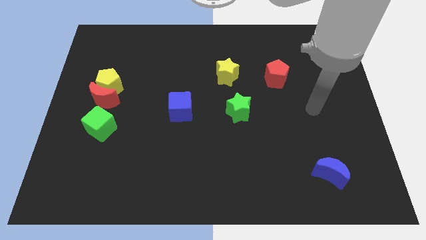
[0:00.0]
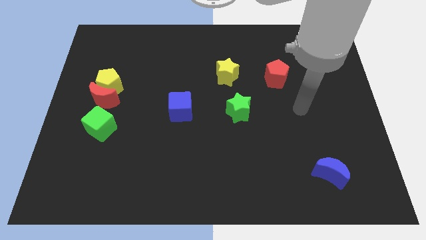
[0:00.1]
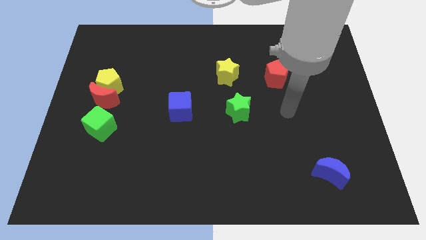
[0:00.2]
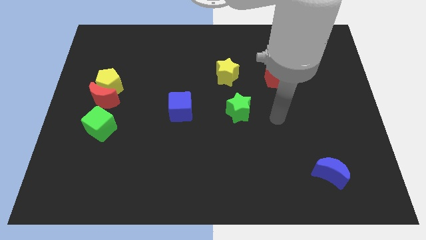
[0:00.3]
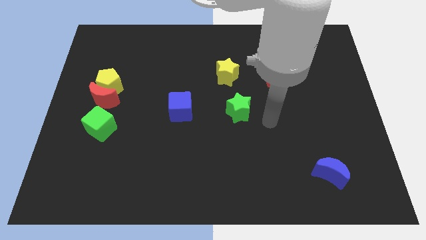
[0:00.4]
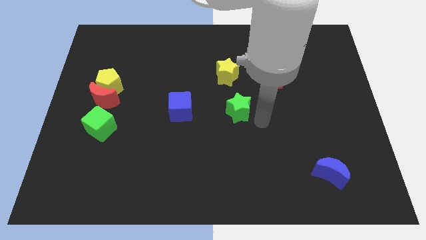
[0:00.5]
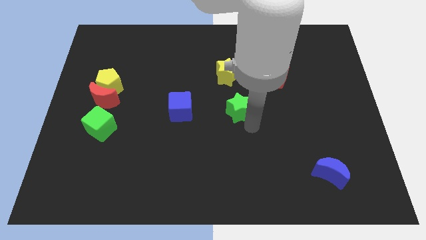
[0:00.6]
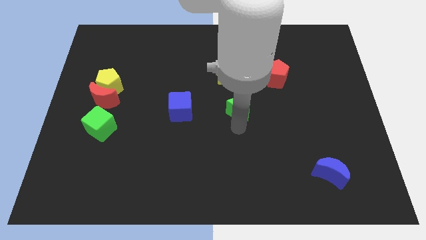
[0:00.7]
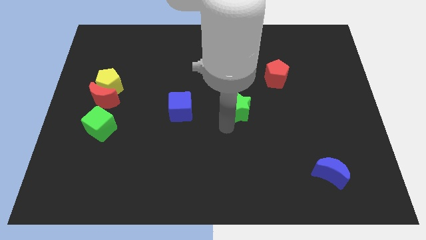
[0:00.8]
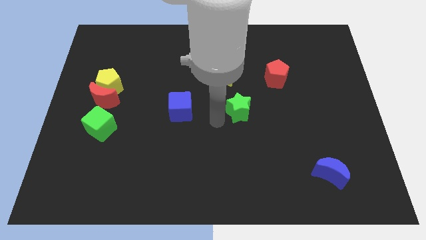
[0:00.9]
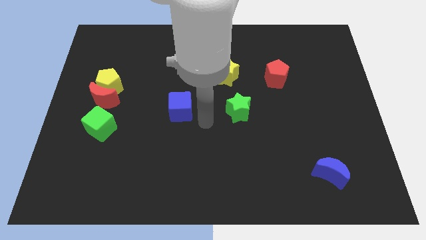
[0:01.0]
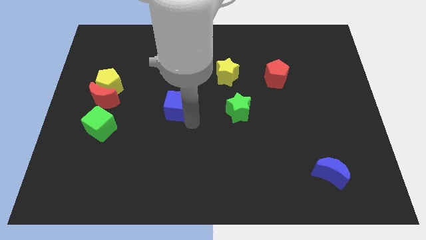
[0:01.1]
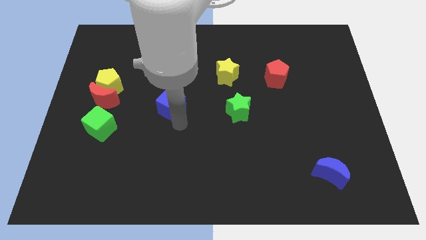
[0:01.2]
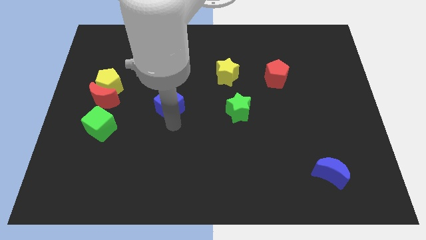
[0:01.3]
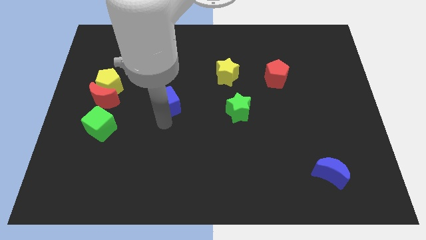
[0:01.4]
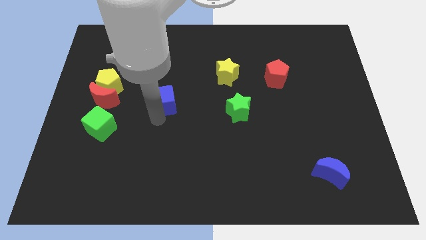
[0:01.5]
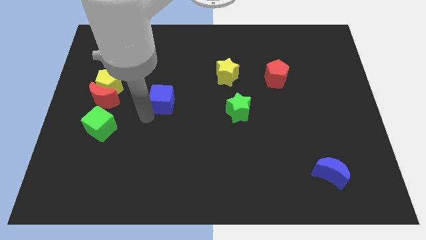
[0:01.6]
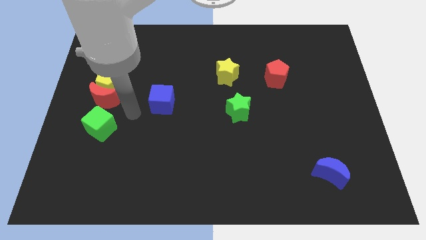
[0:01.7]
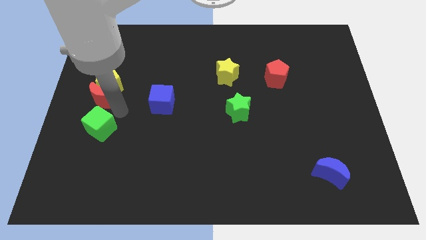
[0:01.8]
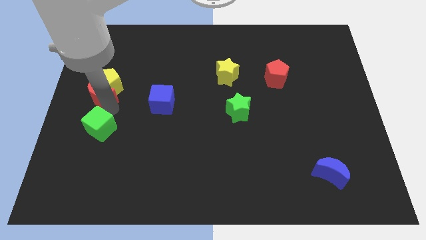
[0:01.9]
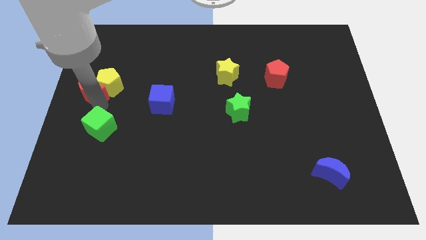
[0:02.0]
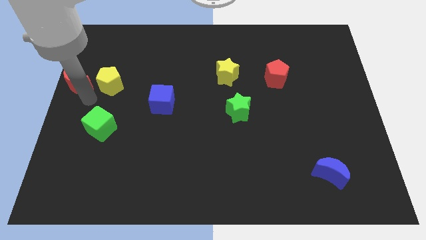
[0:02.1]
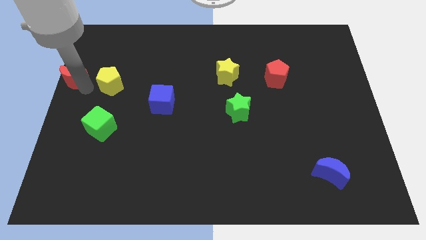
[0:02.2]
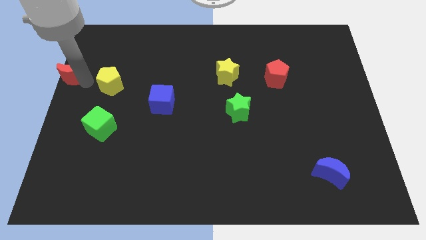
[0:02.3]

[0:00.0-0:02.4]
separate the yellow pentagon from the red moon

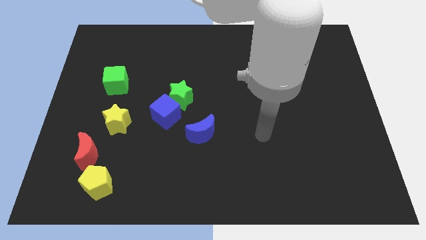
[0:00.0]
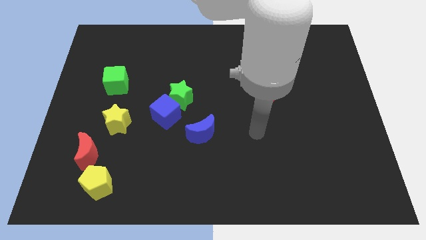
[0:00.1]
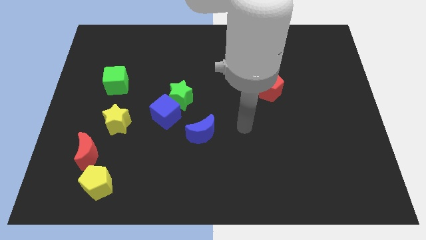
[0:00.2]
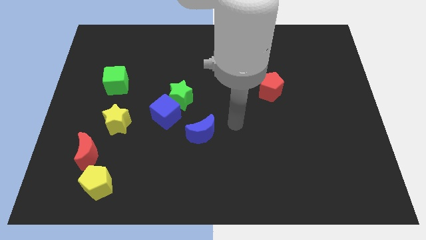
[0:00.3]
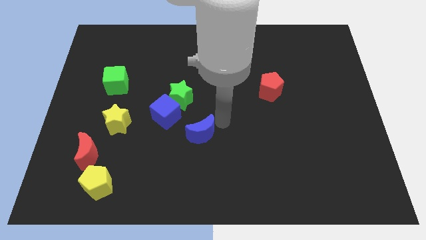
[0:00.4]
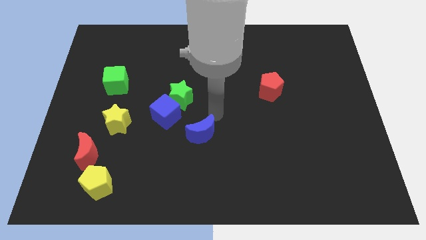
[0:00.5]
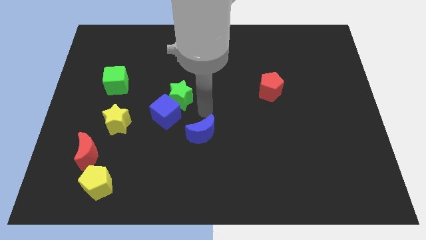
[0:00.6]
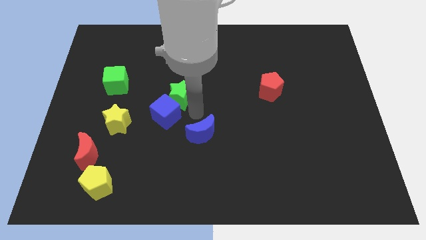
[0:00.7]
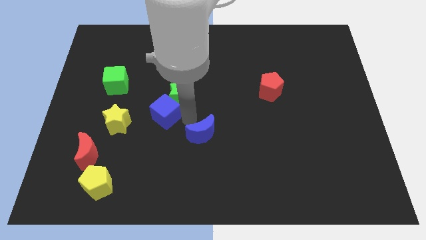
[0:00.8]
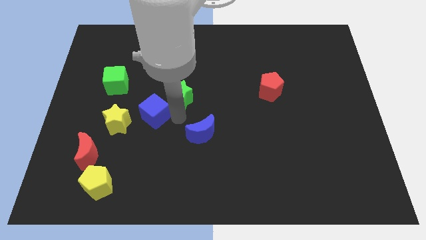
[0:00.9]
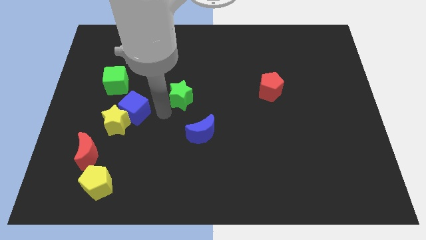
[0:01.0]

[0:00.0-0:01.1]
pull the green star apart from the blue cube

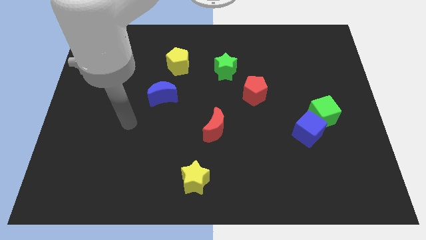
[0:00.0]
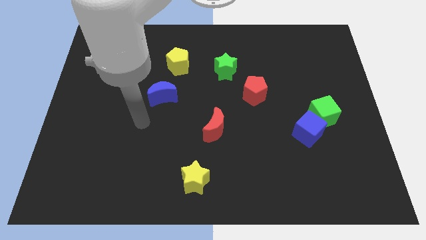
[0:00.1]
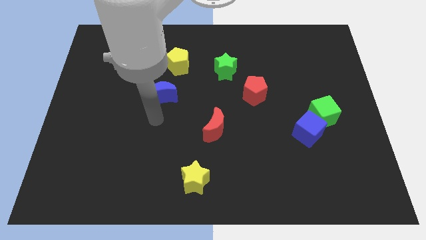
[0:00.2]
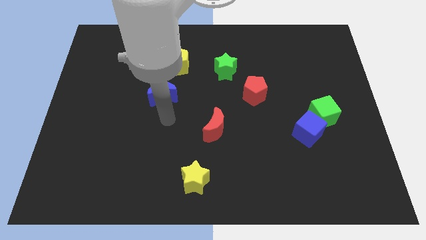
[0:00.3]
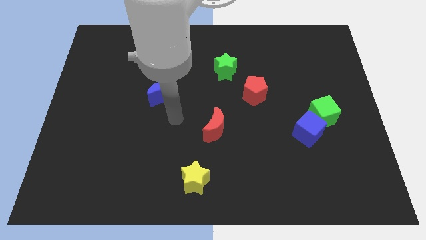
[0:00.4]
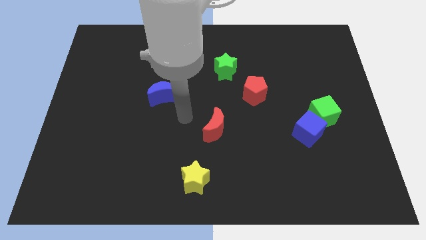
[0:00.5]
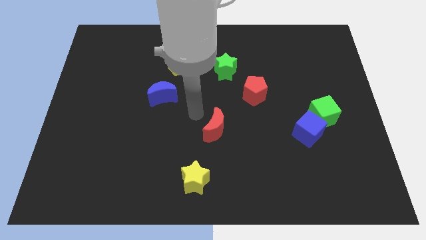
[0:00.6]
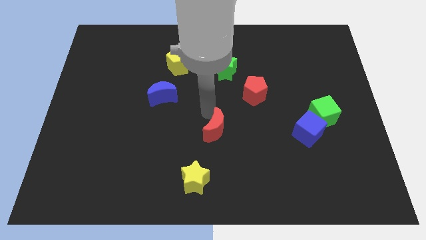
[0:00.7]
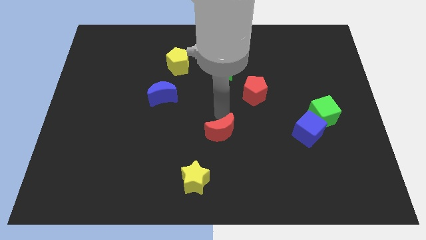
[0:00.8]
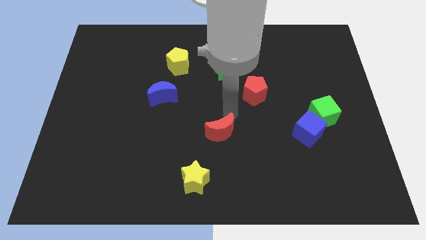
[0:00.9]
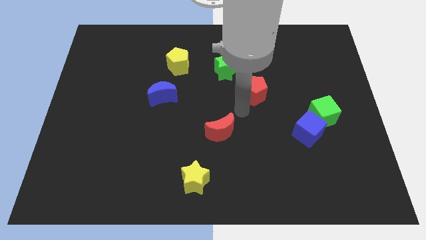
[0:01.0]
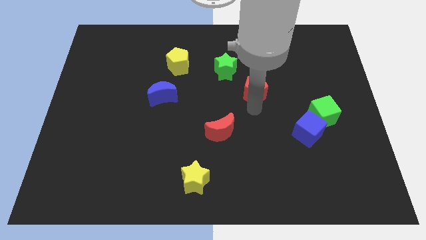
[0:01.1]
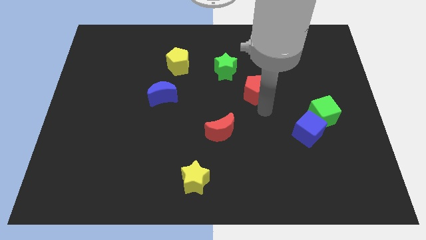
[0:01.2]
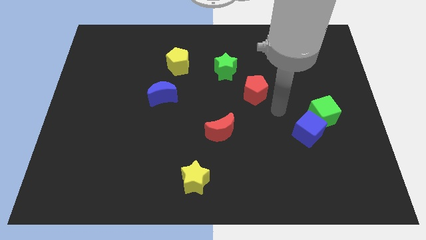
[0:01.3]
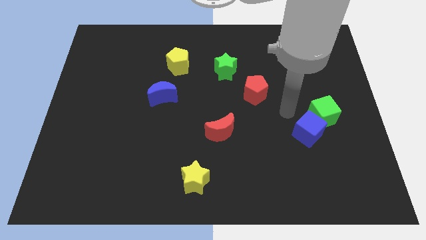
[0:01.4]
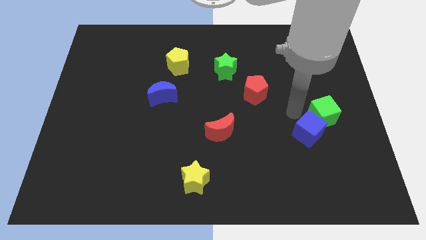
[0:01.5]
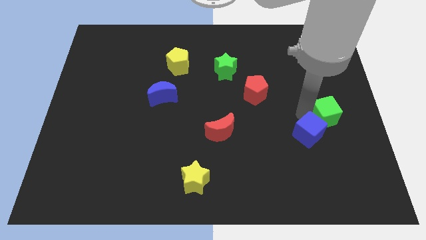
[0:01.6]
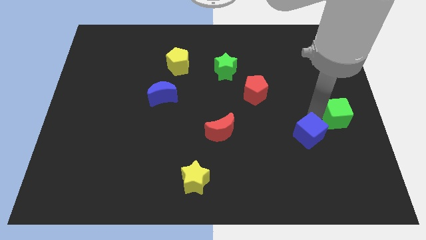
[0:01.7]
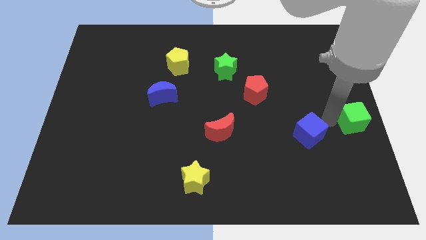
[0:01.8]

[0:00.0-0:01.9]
pull the blue cube apart from the green cube

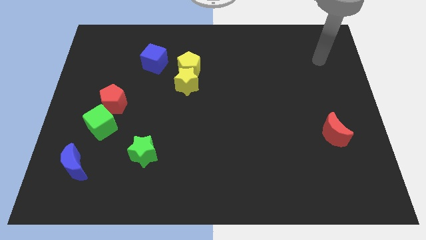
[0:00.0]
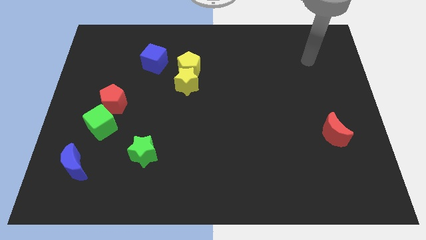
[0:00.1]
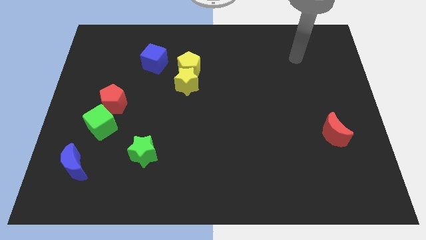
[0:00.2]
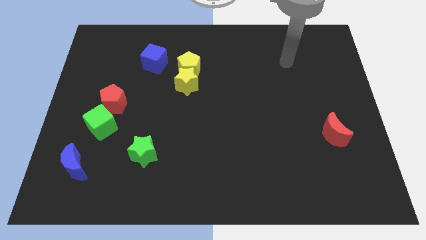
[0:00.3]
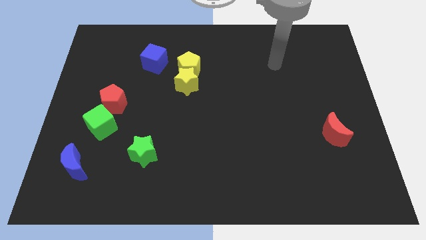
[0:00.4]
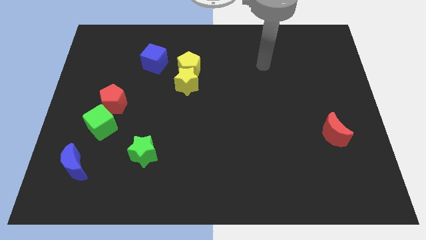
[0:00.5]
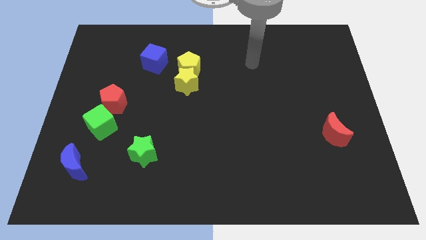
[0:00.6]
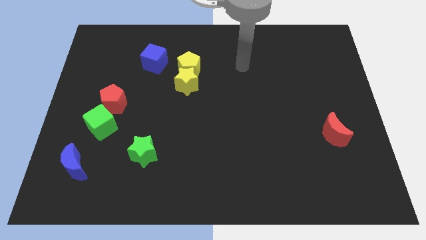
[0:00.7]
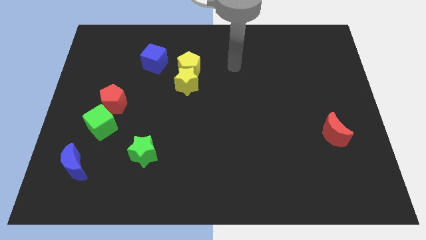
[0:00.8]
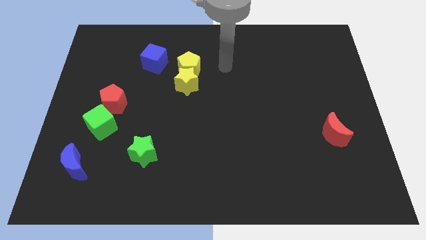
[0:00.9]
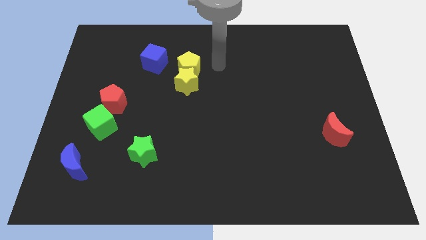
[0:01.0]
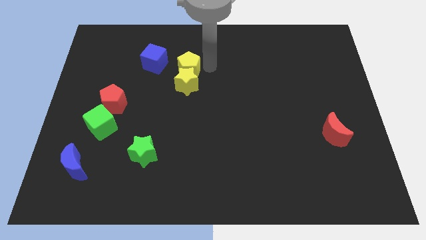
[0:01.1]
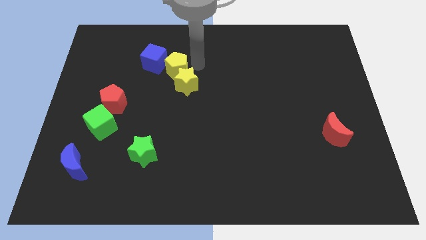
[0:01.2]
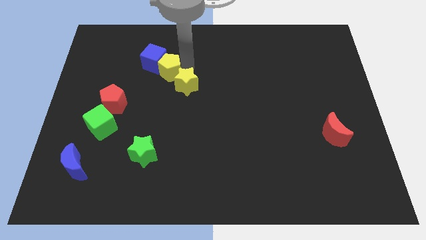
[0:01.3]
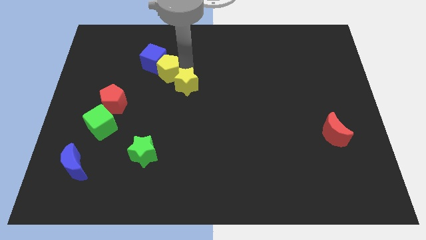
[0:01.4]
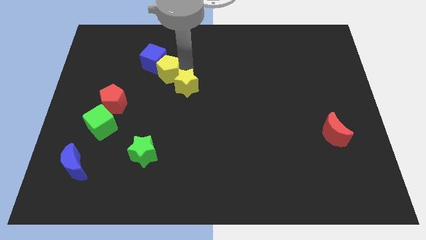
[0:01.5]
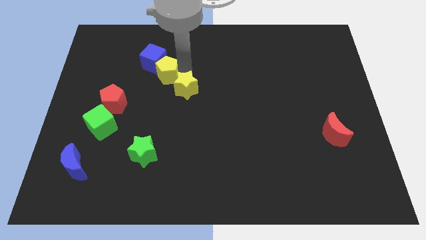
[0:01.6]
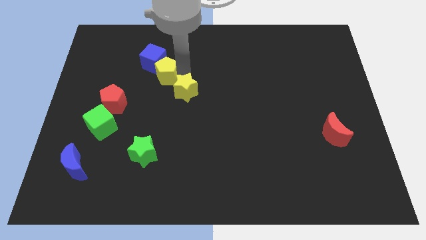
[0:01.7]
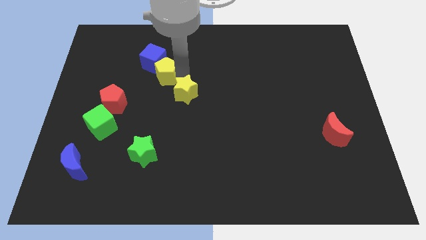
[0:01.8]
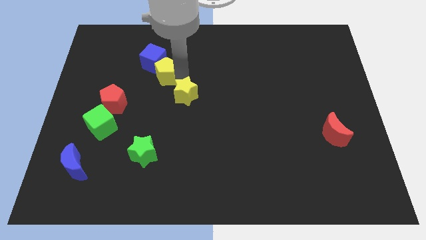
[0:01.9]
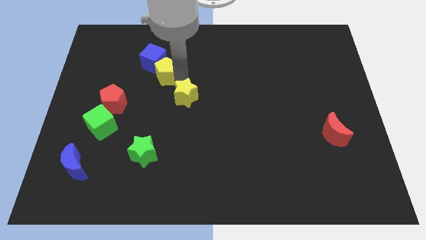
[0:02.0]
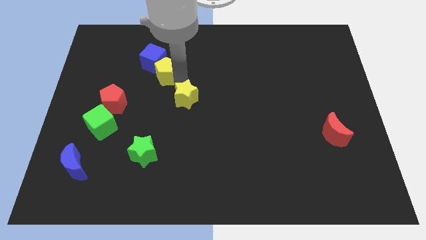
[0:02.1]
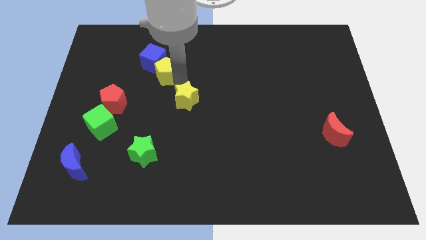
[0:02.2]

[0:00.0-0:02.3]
pull the yellow star apart from the yellow pentagon

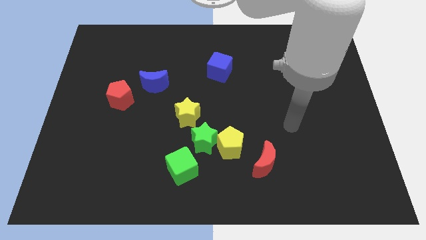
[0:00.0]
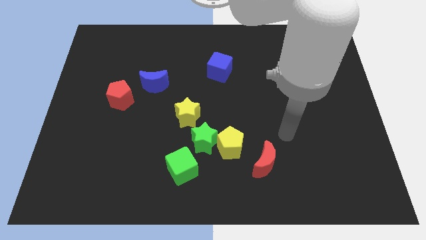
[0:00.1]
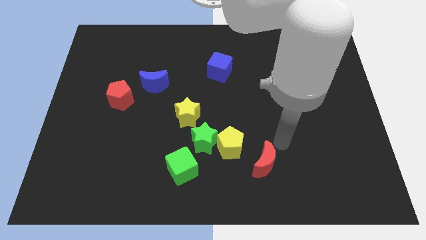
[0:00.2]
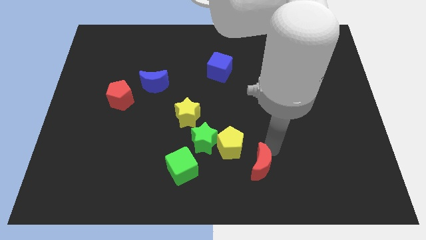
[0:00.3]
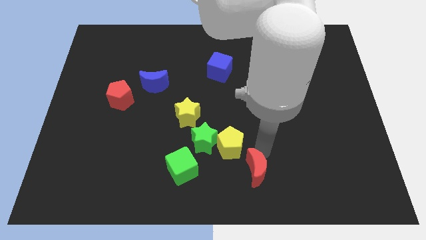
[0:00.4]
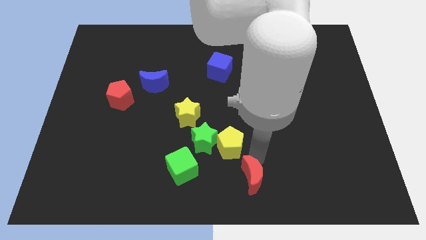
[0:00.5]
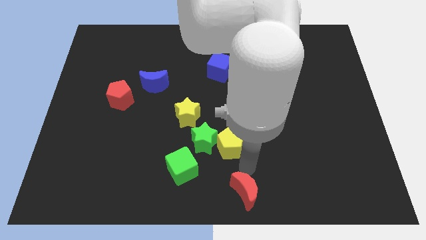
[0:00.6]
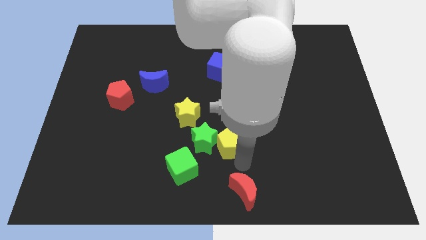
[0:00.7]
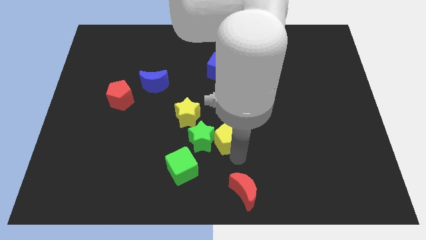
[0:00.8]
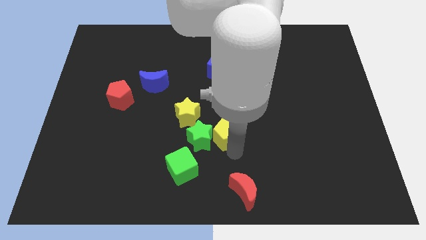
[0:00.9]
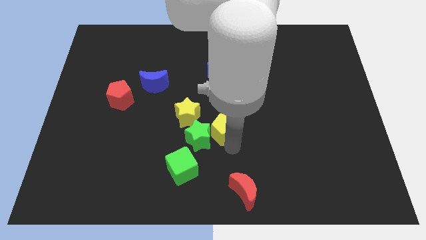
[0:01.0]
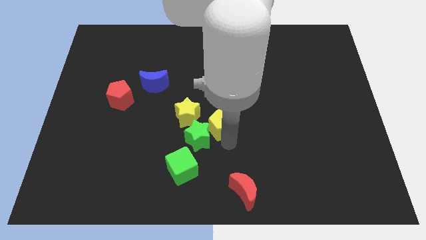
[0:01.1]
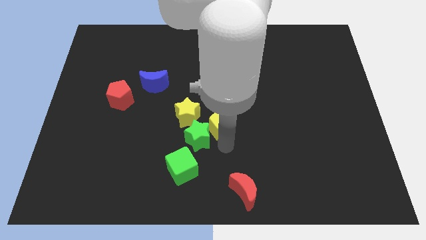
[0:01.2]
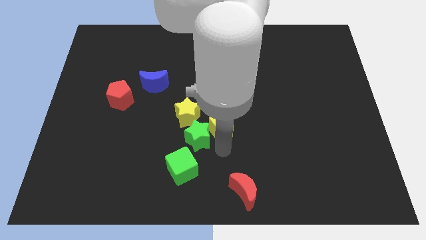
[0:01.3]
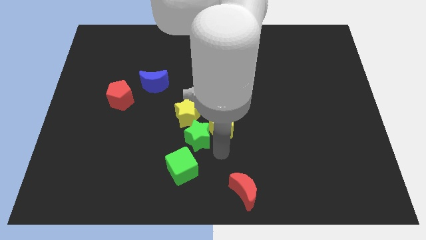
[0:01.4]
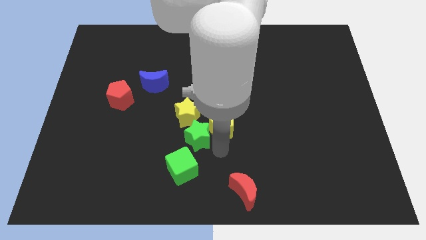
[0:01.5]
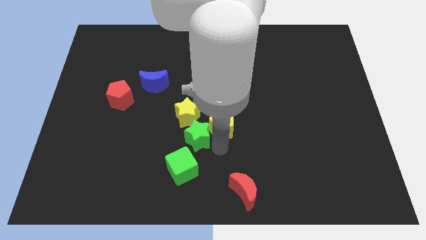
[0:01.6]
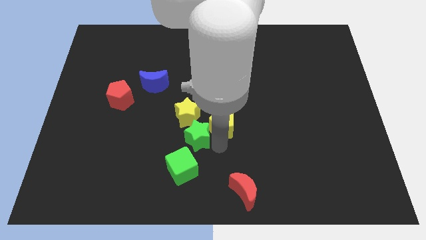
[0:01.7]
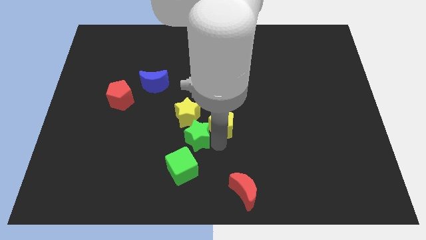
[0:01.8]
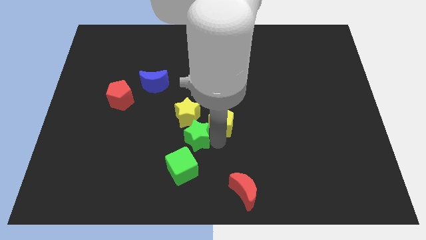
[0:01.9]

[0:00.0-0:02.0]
move the yellow pentagon away from the green star and red moon
